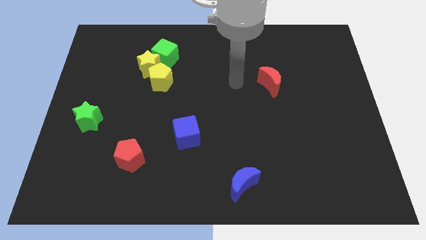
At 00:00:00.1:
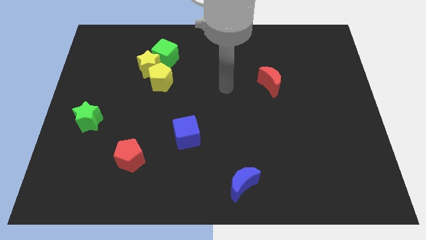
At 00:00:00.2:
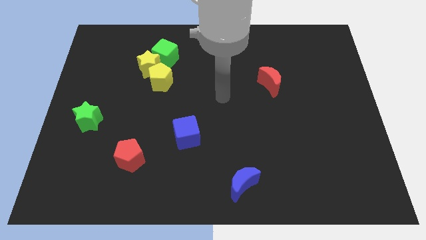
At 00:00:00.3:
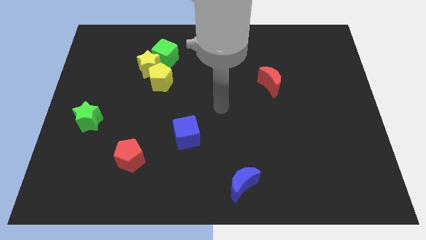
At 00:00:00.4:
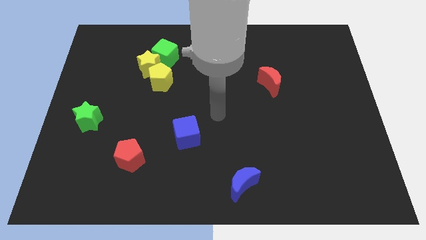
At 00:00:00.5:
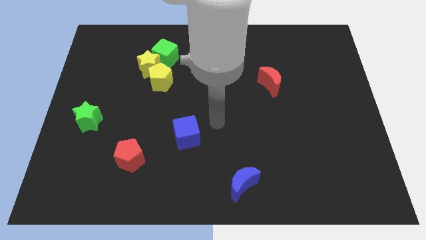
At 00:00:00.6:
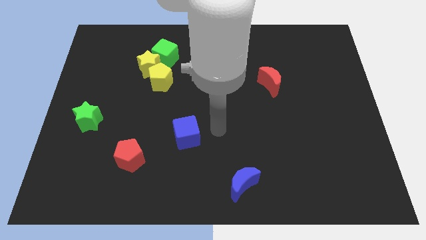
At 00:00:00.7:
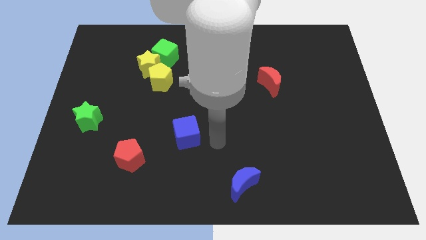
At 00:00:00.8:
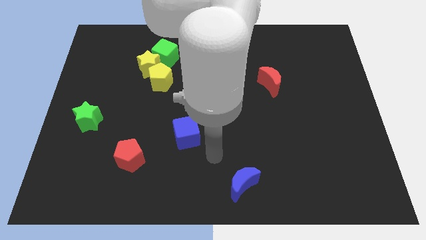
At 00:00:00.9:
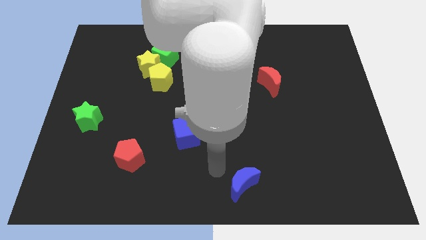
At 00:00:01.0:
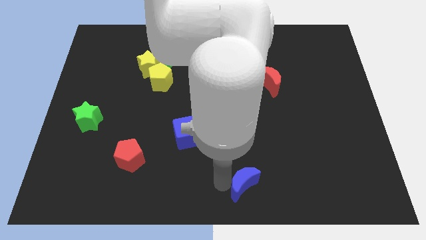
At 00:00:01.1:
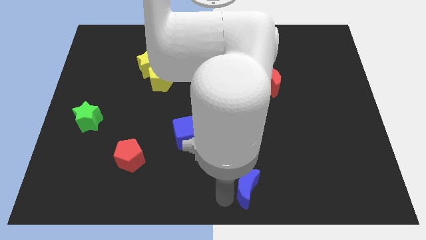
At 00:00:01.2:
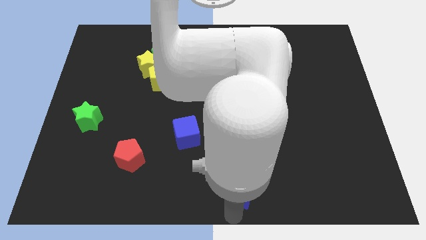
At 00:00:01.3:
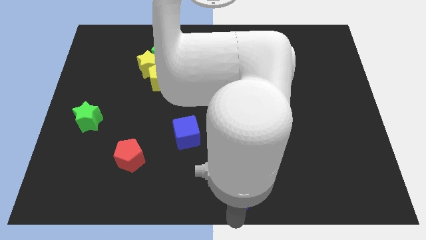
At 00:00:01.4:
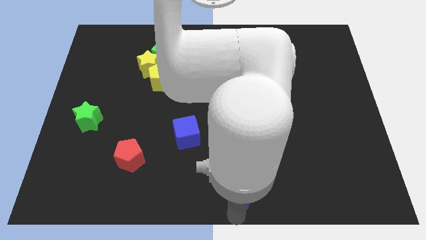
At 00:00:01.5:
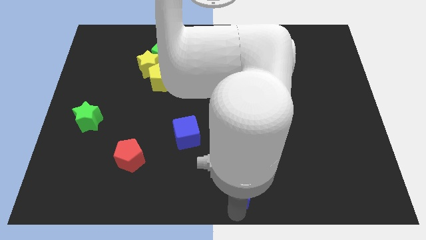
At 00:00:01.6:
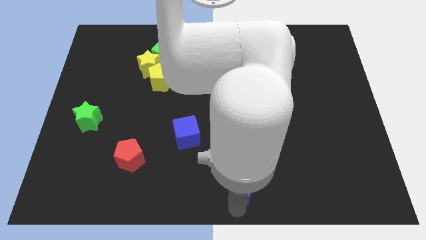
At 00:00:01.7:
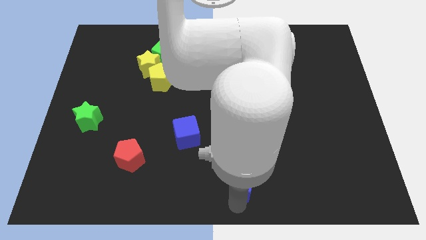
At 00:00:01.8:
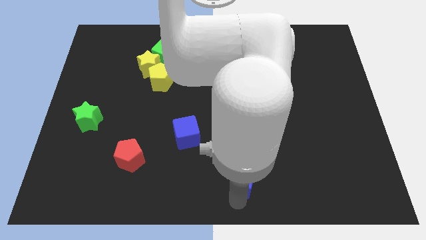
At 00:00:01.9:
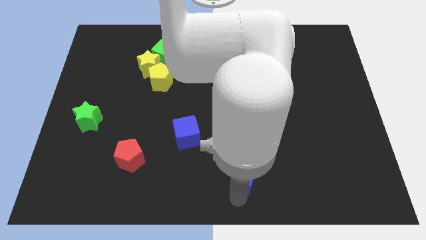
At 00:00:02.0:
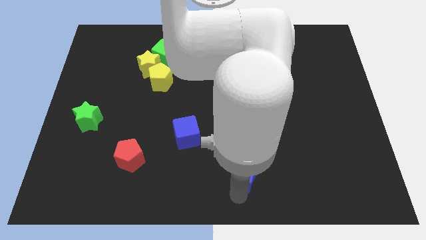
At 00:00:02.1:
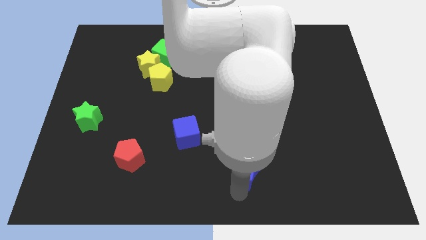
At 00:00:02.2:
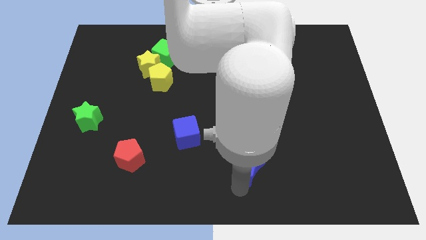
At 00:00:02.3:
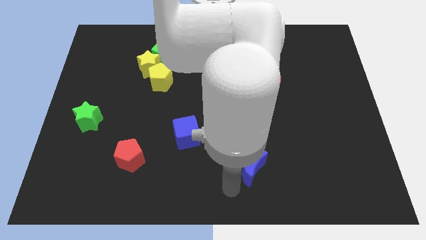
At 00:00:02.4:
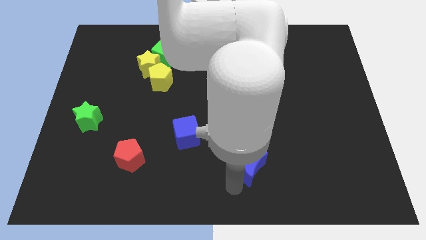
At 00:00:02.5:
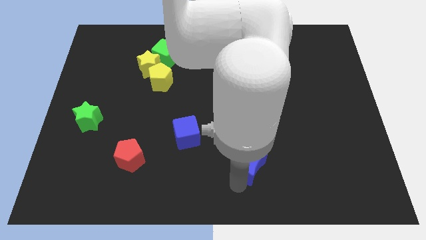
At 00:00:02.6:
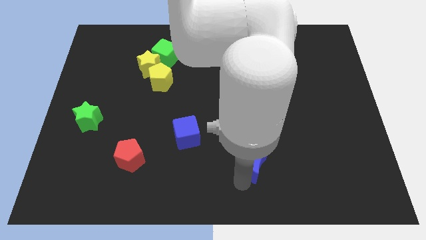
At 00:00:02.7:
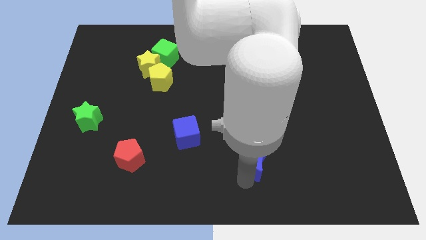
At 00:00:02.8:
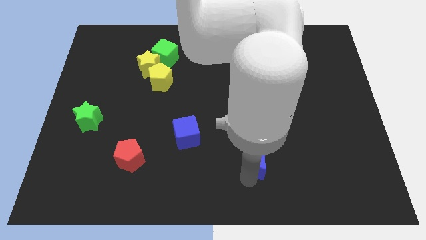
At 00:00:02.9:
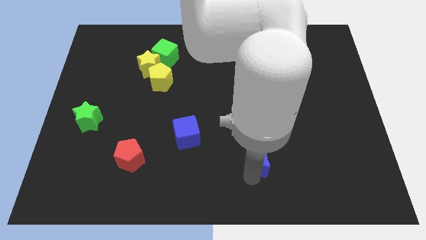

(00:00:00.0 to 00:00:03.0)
move the blue moon upwards and to the right a bit

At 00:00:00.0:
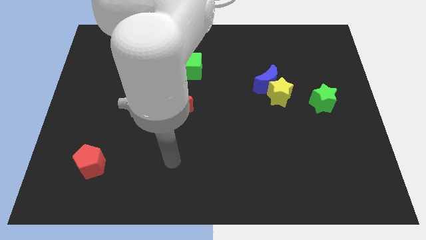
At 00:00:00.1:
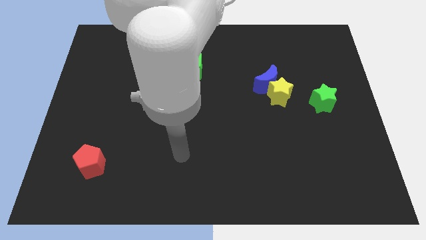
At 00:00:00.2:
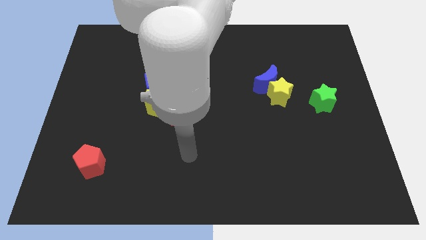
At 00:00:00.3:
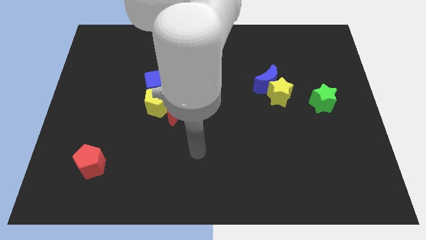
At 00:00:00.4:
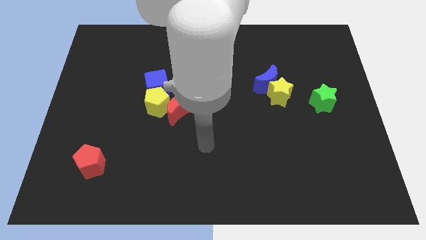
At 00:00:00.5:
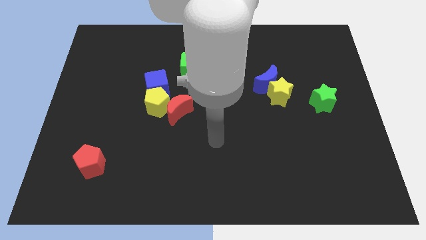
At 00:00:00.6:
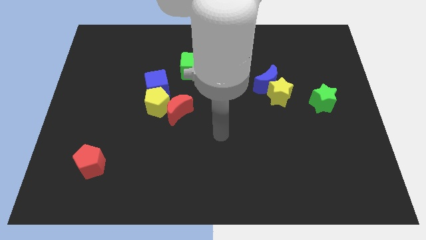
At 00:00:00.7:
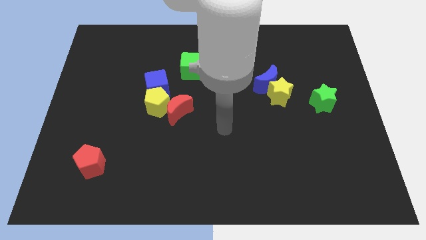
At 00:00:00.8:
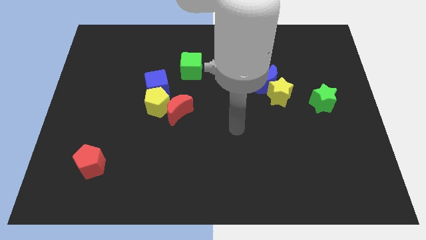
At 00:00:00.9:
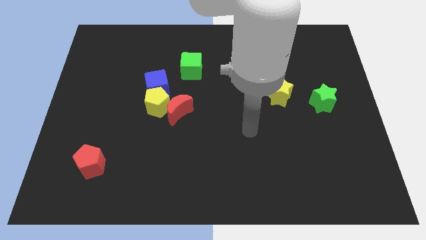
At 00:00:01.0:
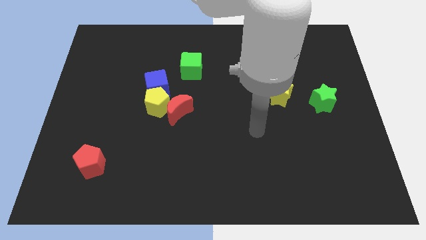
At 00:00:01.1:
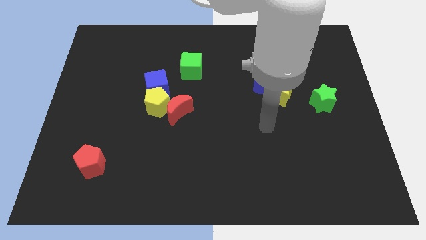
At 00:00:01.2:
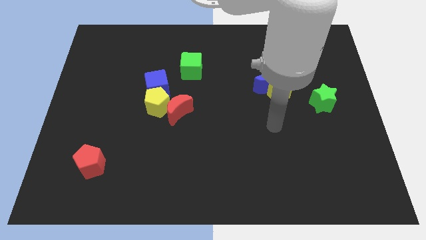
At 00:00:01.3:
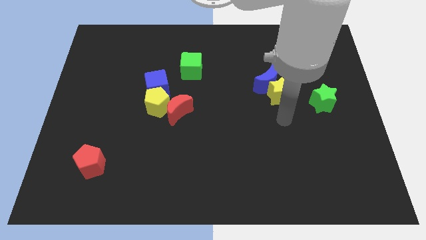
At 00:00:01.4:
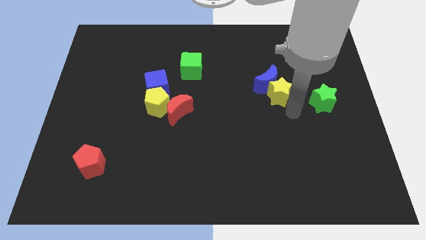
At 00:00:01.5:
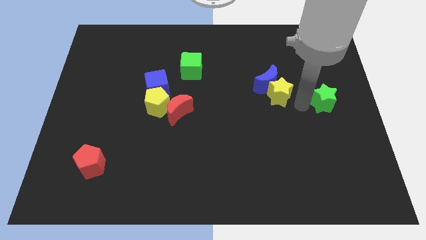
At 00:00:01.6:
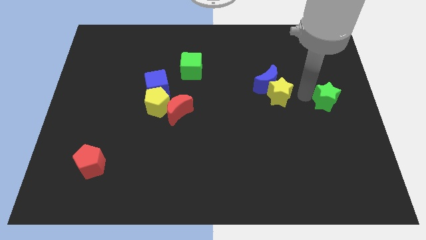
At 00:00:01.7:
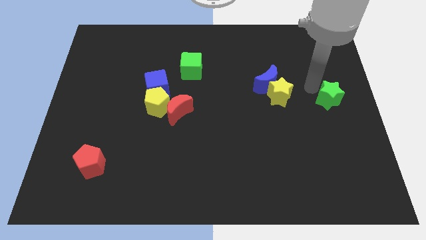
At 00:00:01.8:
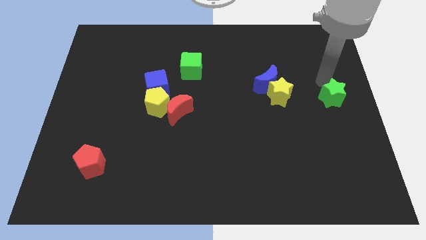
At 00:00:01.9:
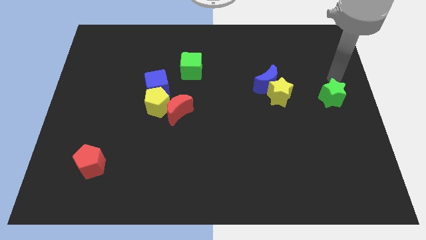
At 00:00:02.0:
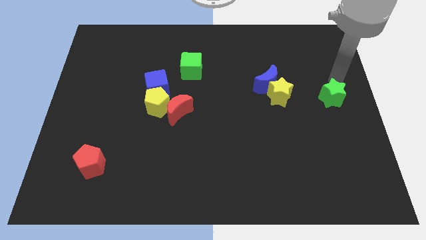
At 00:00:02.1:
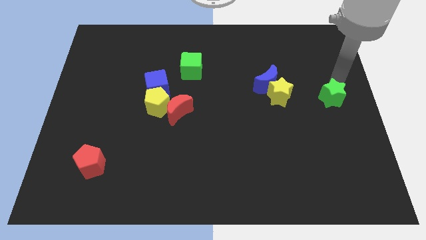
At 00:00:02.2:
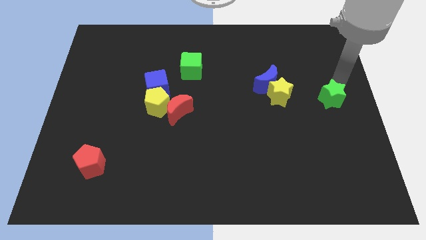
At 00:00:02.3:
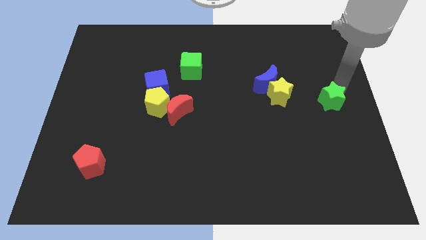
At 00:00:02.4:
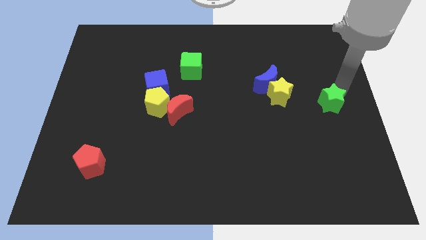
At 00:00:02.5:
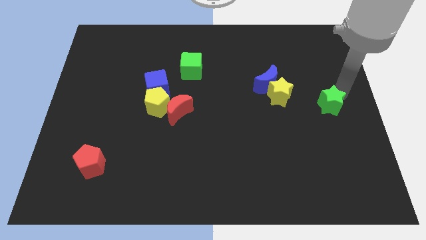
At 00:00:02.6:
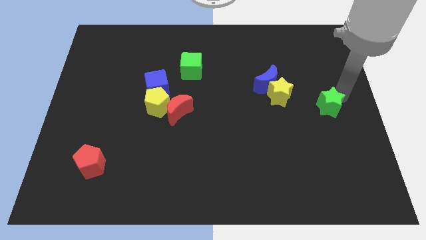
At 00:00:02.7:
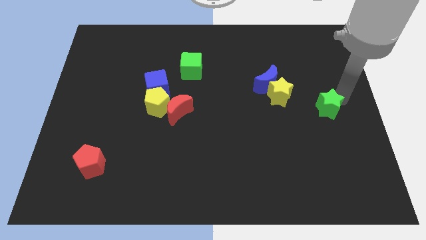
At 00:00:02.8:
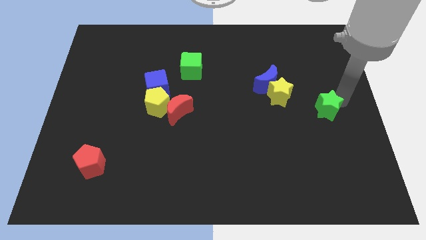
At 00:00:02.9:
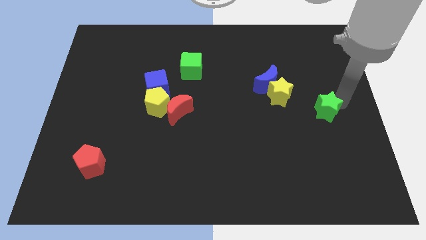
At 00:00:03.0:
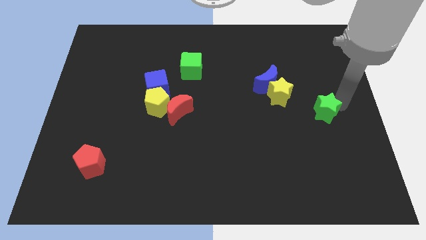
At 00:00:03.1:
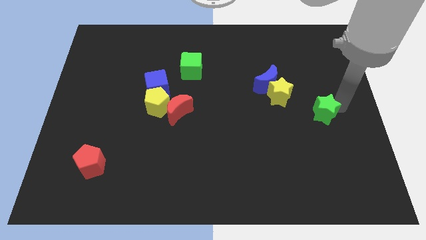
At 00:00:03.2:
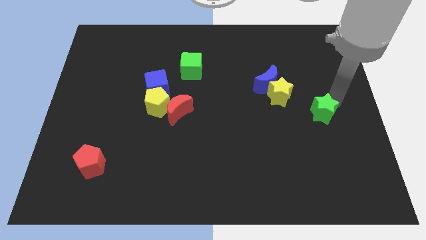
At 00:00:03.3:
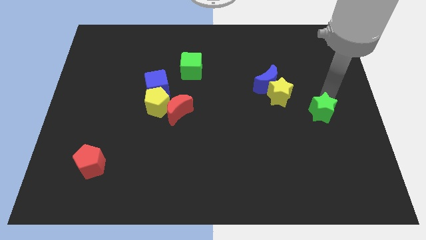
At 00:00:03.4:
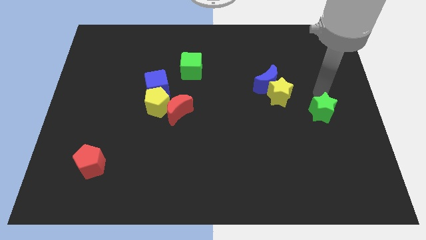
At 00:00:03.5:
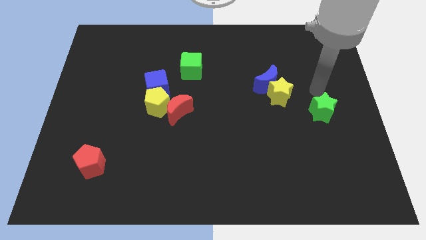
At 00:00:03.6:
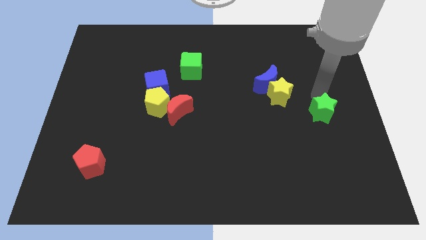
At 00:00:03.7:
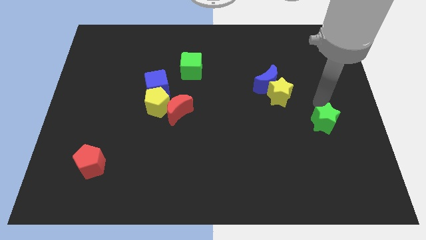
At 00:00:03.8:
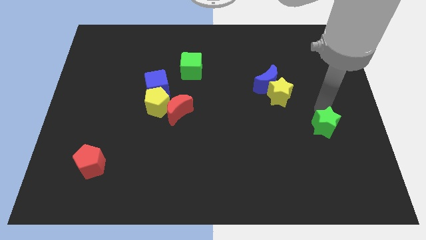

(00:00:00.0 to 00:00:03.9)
slide the green star downwards slightly

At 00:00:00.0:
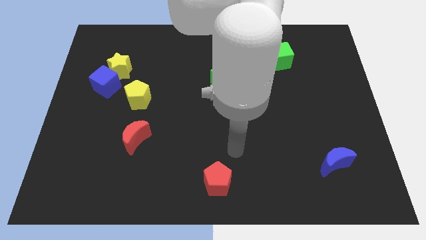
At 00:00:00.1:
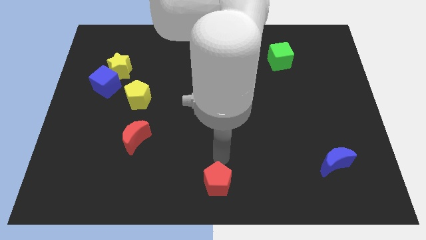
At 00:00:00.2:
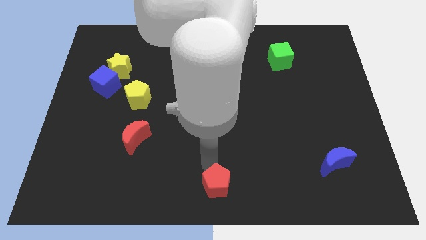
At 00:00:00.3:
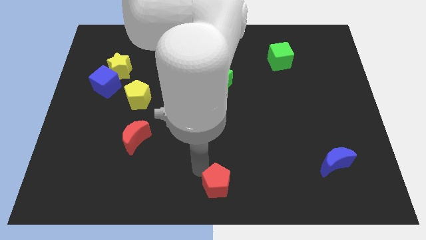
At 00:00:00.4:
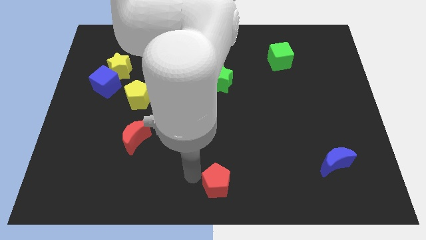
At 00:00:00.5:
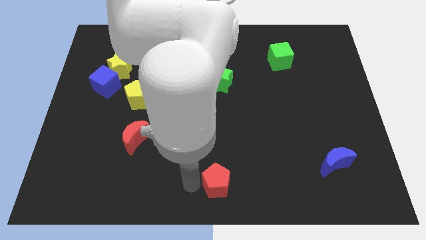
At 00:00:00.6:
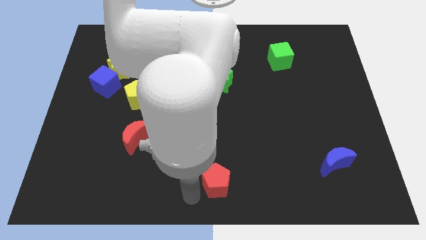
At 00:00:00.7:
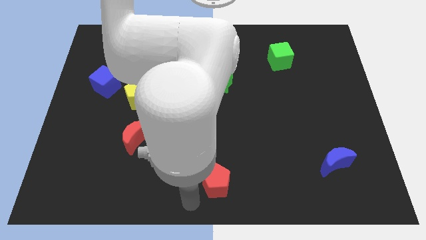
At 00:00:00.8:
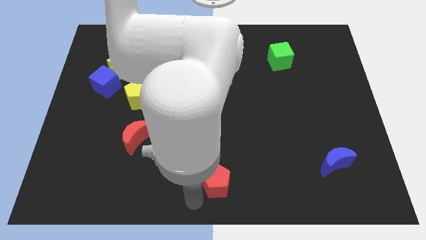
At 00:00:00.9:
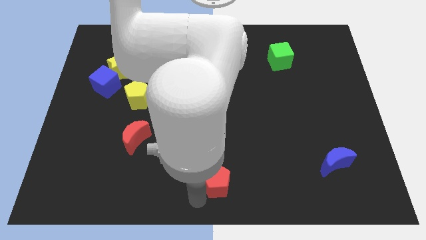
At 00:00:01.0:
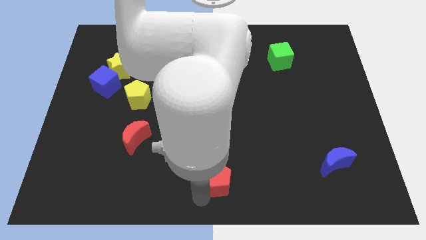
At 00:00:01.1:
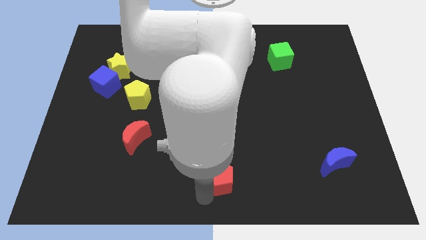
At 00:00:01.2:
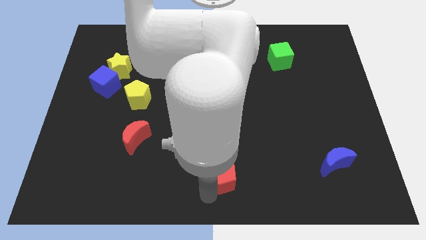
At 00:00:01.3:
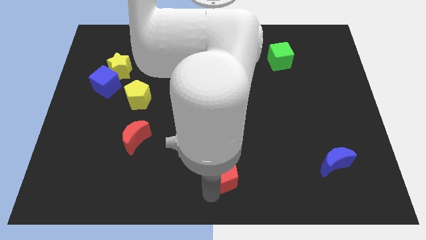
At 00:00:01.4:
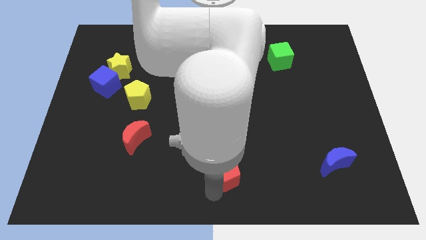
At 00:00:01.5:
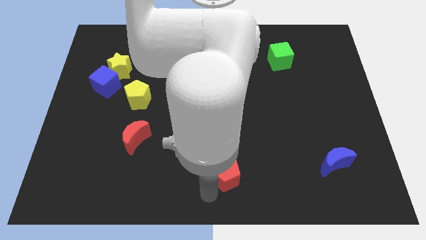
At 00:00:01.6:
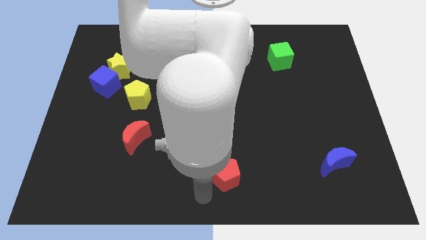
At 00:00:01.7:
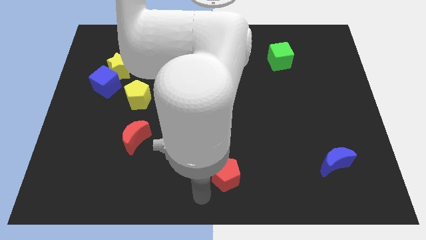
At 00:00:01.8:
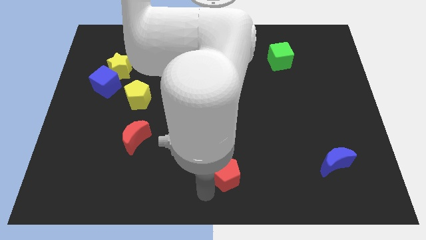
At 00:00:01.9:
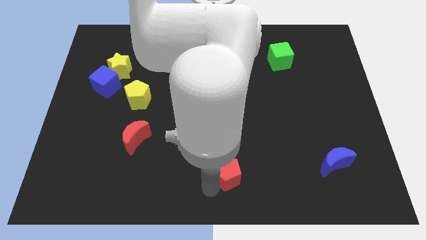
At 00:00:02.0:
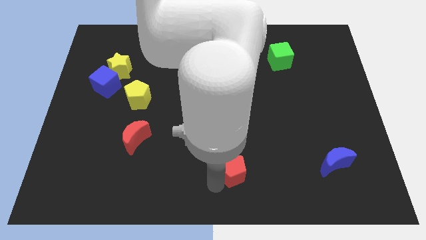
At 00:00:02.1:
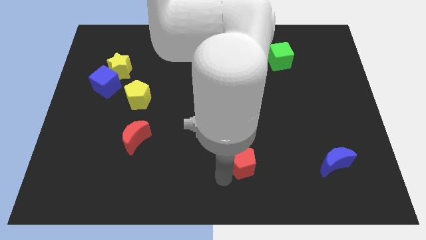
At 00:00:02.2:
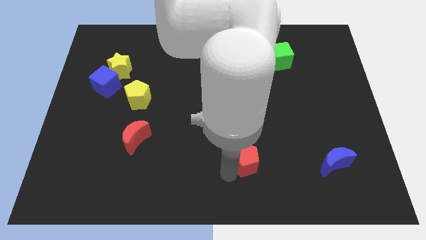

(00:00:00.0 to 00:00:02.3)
push the red pentagon a bit diagonally up and to the right
